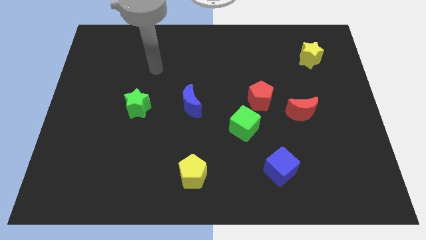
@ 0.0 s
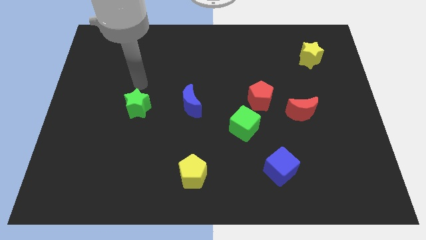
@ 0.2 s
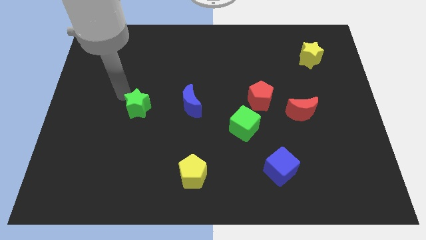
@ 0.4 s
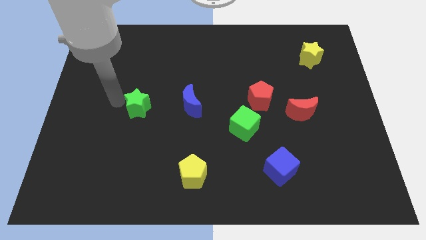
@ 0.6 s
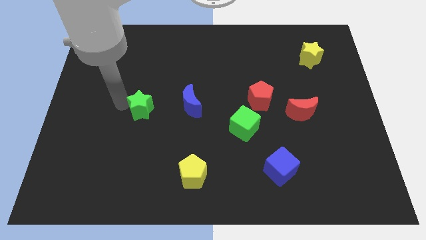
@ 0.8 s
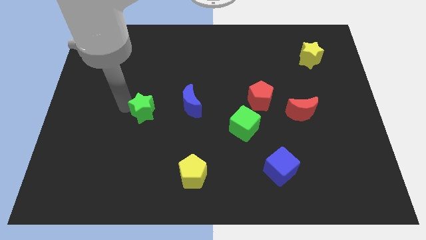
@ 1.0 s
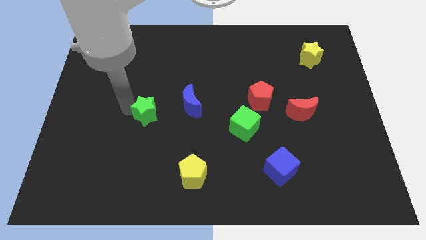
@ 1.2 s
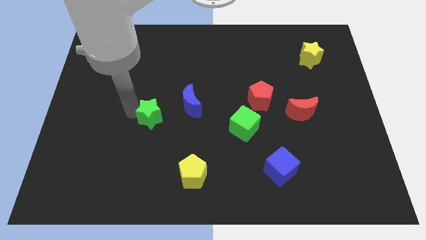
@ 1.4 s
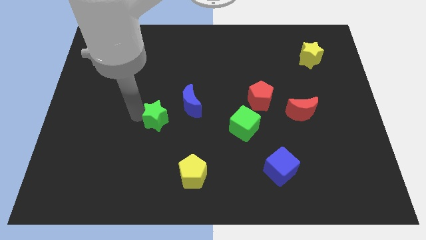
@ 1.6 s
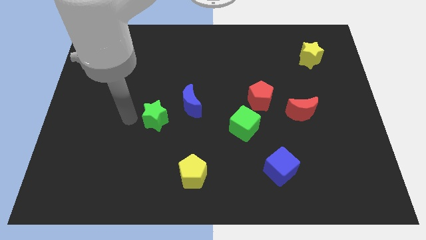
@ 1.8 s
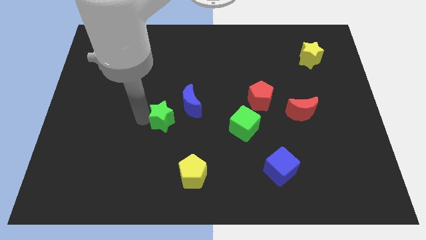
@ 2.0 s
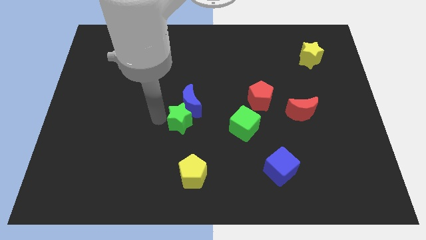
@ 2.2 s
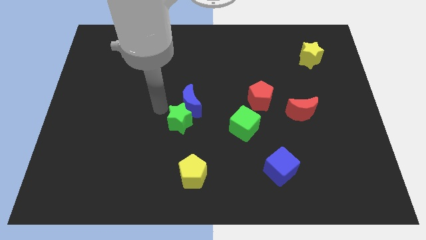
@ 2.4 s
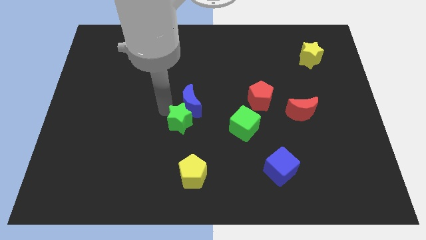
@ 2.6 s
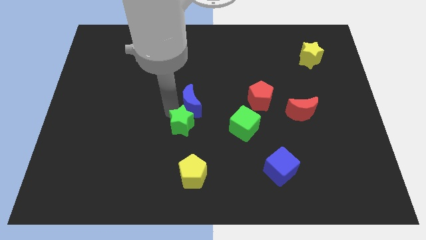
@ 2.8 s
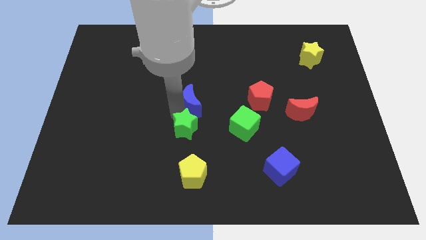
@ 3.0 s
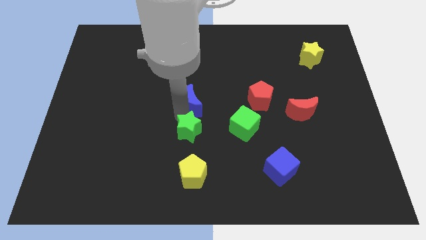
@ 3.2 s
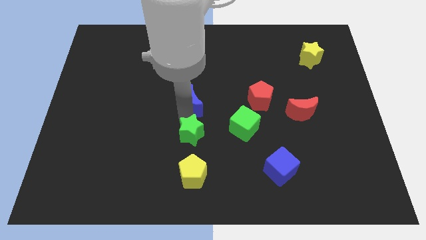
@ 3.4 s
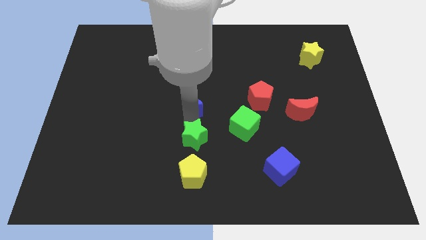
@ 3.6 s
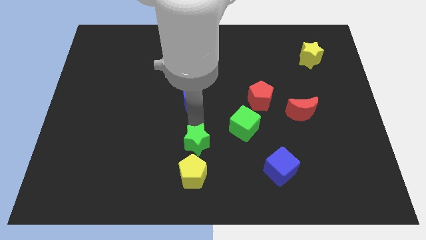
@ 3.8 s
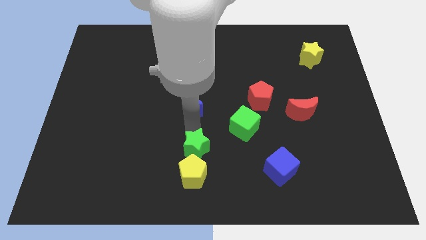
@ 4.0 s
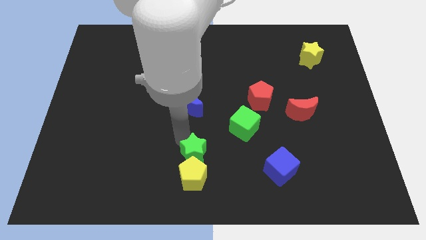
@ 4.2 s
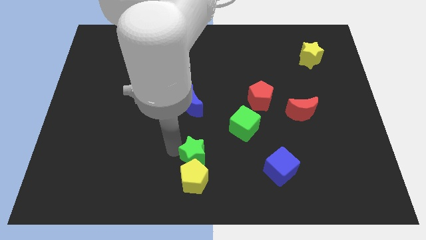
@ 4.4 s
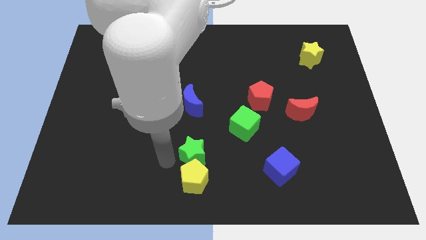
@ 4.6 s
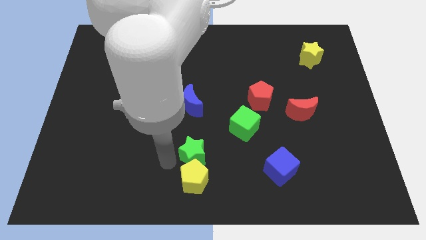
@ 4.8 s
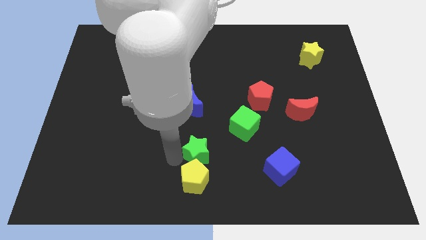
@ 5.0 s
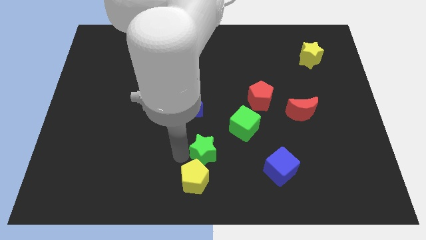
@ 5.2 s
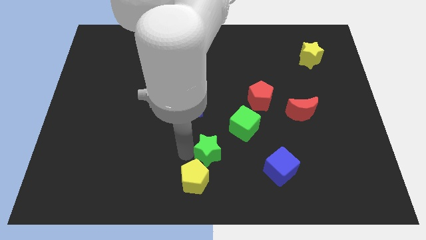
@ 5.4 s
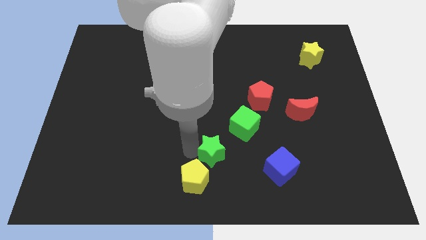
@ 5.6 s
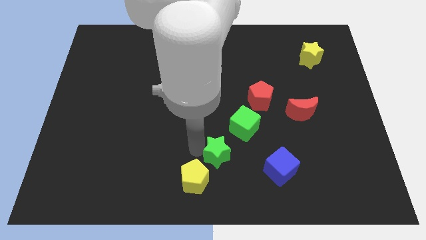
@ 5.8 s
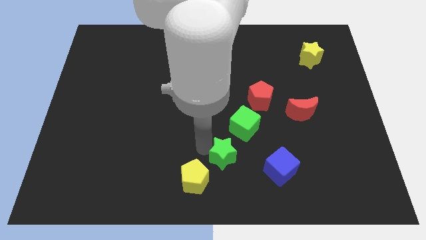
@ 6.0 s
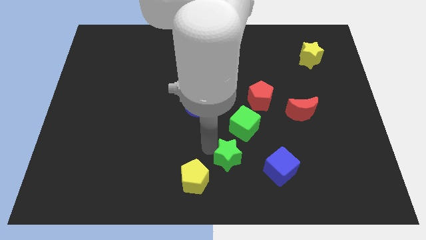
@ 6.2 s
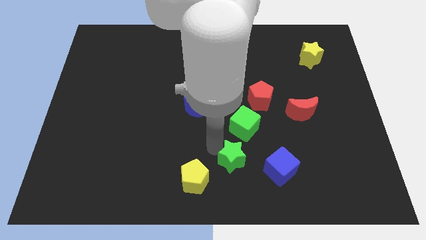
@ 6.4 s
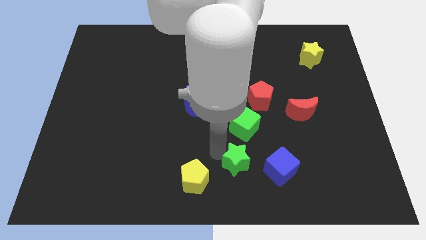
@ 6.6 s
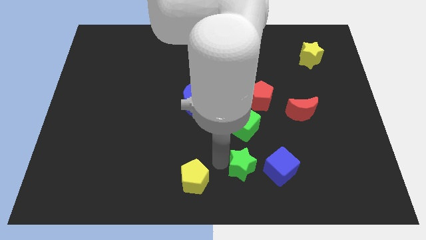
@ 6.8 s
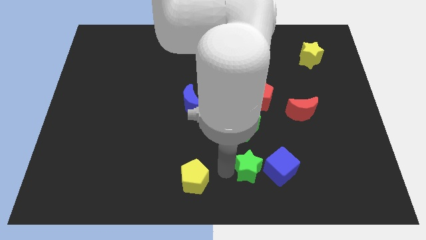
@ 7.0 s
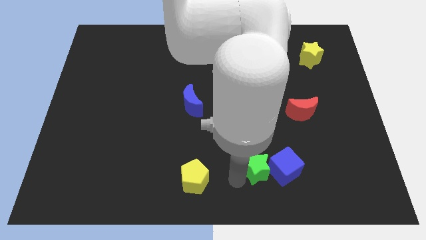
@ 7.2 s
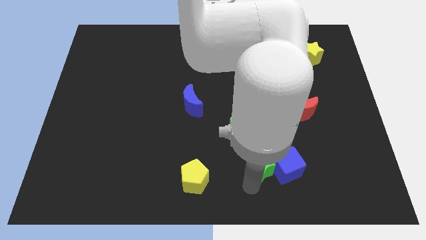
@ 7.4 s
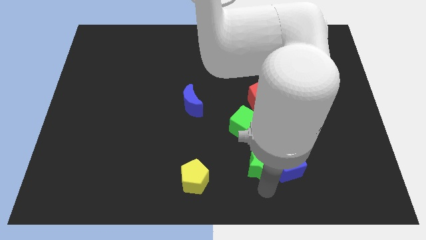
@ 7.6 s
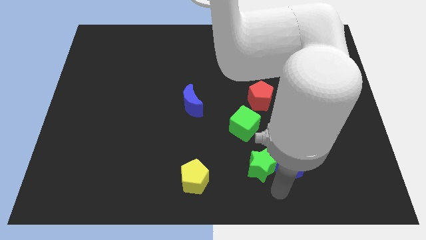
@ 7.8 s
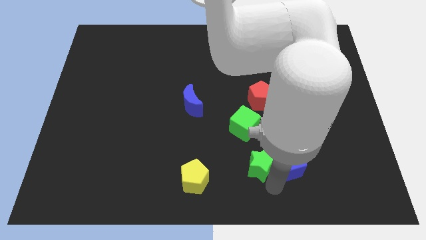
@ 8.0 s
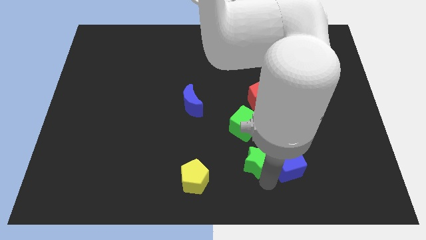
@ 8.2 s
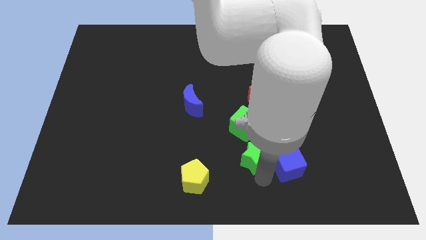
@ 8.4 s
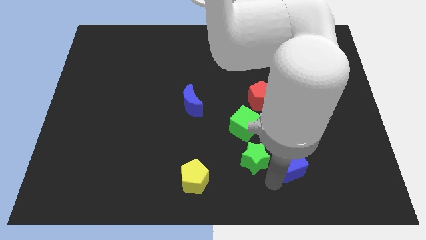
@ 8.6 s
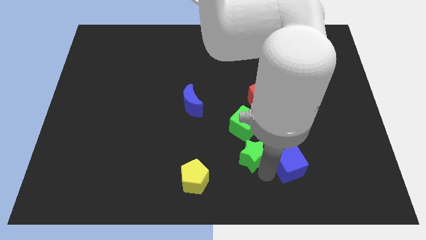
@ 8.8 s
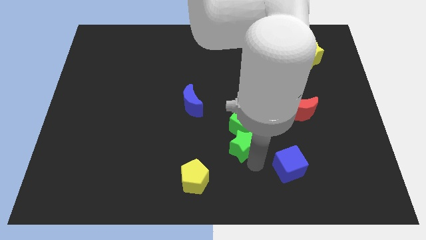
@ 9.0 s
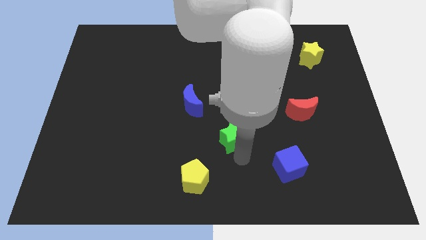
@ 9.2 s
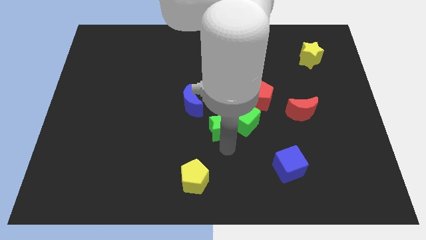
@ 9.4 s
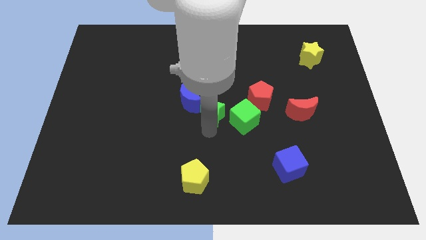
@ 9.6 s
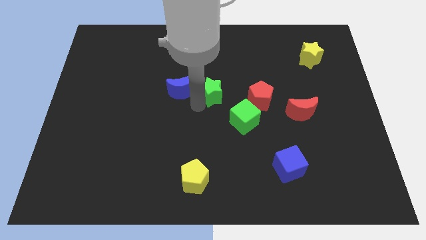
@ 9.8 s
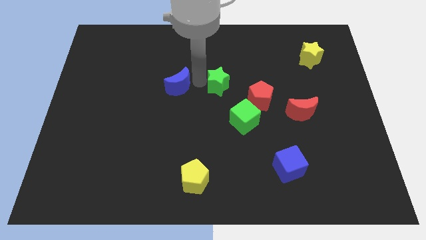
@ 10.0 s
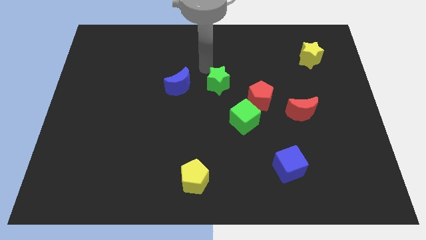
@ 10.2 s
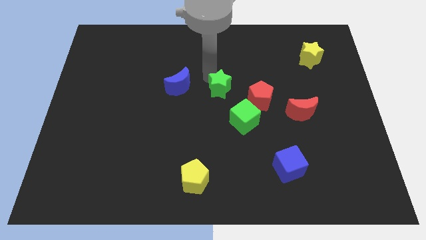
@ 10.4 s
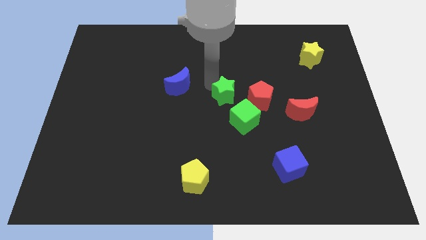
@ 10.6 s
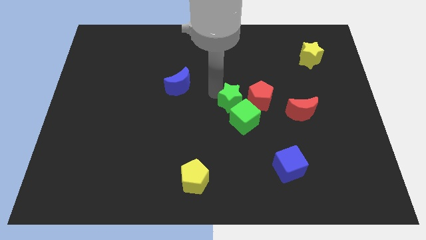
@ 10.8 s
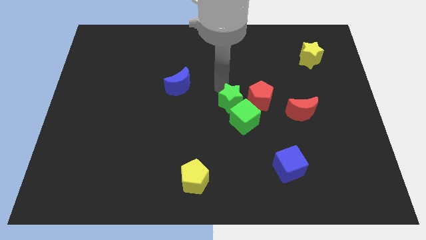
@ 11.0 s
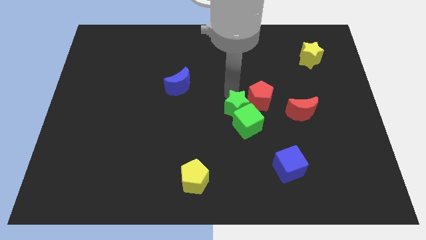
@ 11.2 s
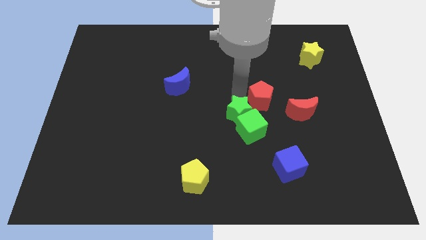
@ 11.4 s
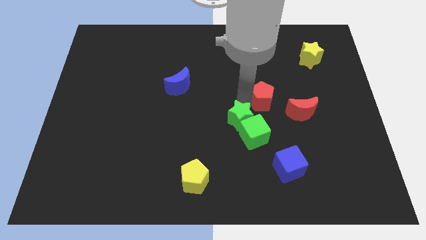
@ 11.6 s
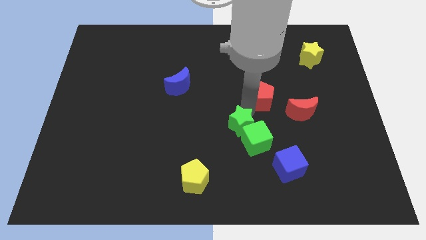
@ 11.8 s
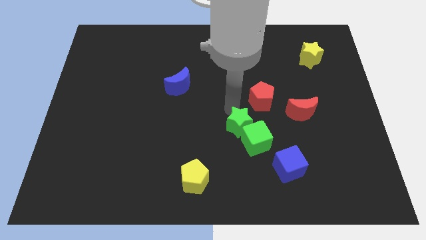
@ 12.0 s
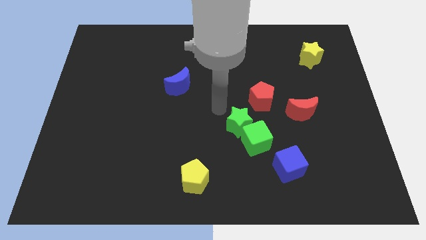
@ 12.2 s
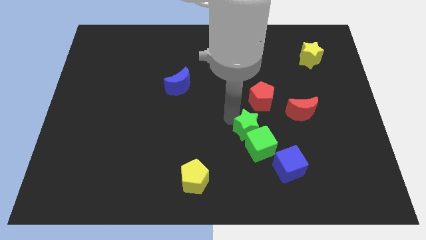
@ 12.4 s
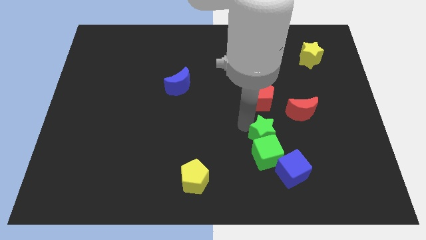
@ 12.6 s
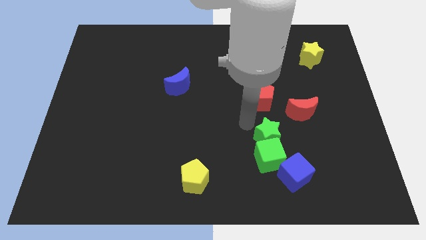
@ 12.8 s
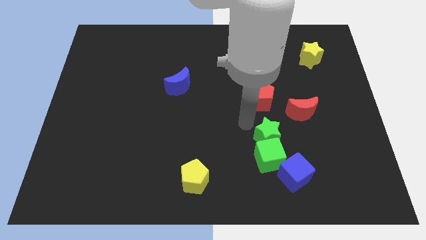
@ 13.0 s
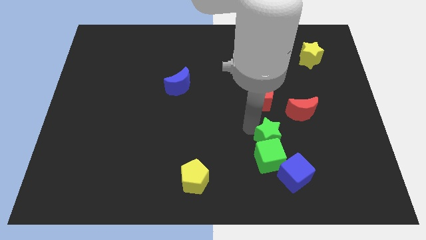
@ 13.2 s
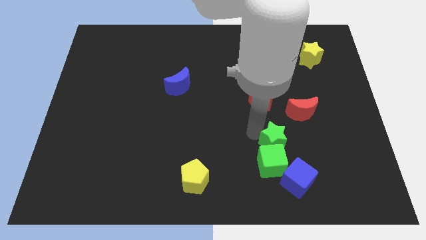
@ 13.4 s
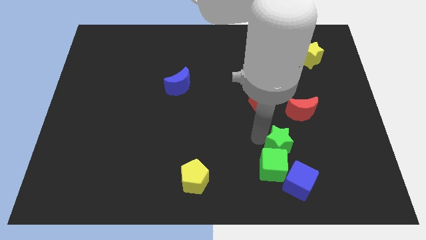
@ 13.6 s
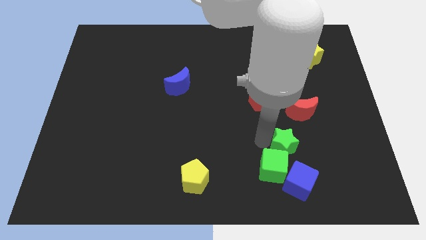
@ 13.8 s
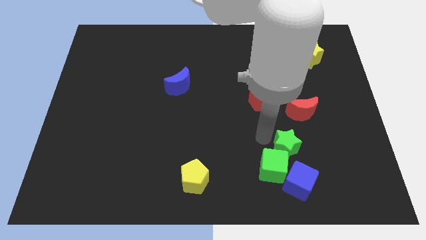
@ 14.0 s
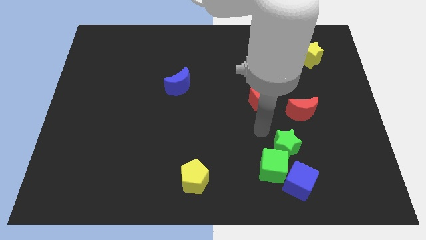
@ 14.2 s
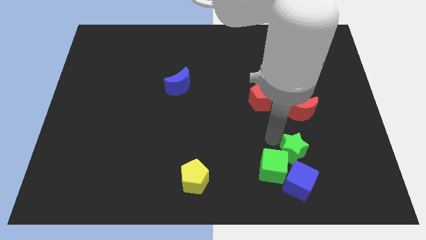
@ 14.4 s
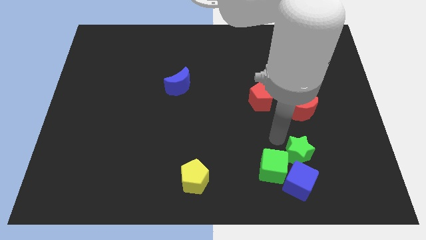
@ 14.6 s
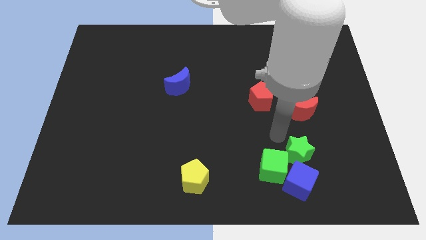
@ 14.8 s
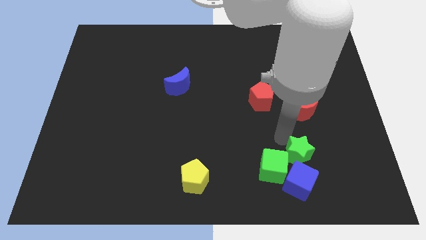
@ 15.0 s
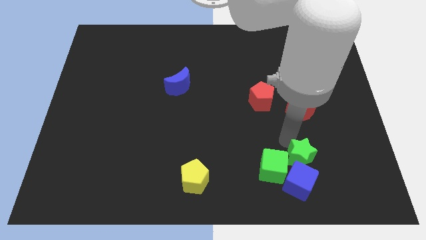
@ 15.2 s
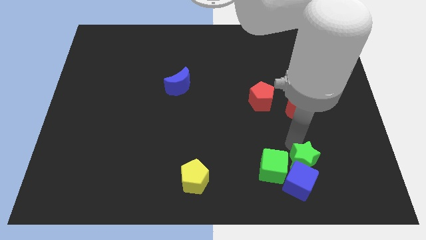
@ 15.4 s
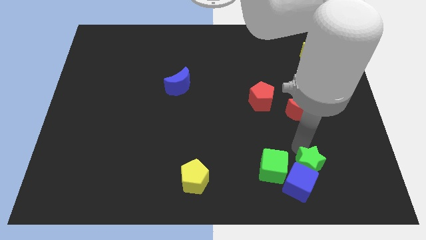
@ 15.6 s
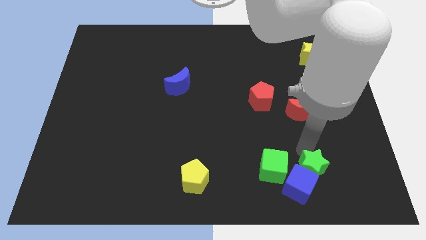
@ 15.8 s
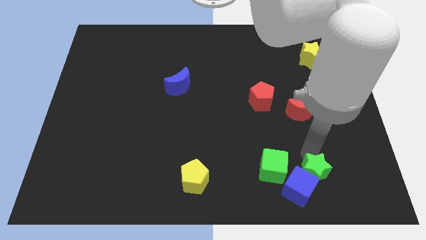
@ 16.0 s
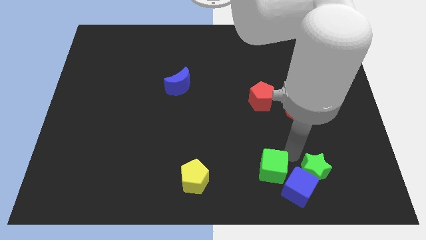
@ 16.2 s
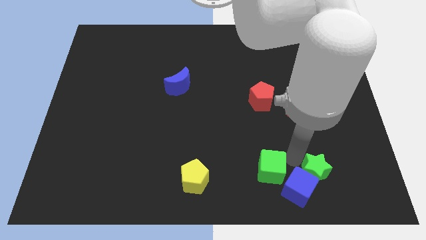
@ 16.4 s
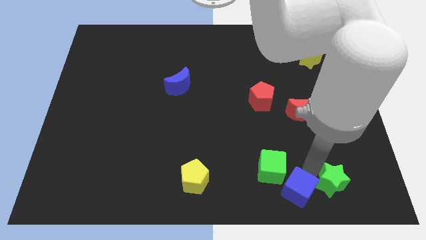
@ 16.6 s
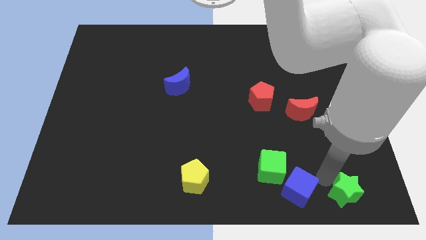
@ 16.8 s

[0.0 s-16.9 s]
put the green star to the bottom right corner
